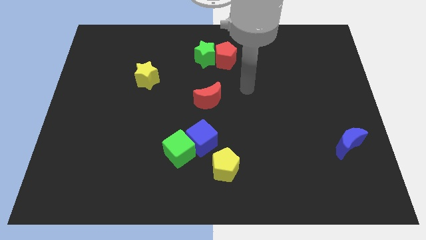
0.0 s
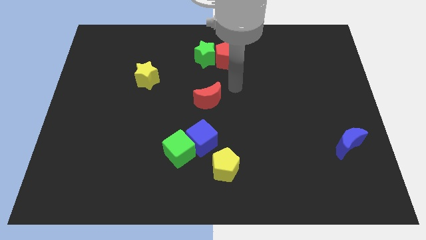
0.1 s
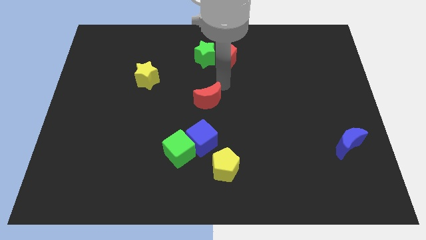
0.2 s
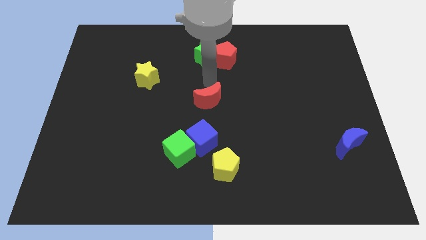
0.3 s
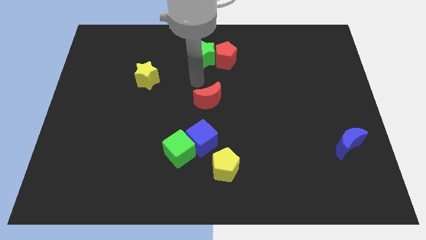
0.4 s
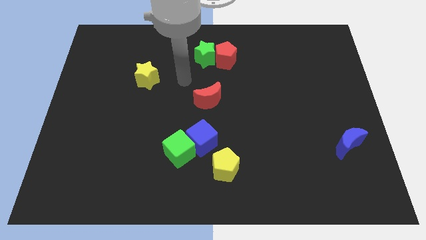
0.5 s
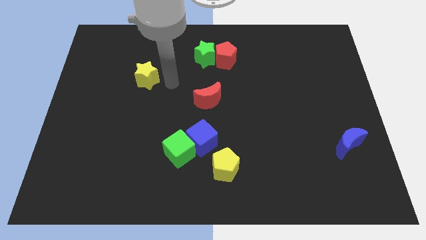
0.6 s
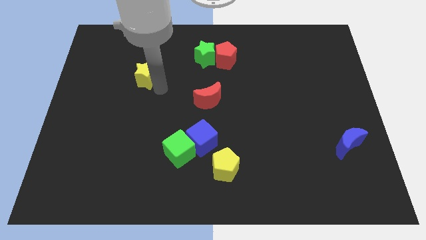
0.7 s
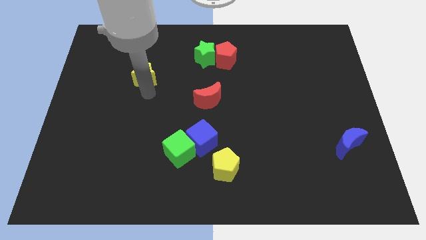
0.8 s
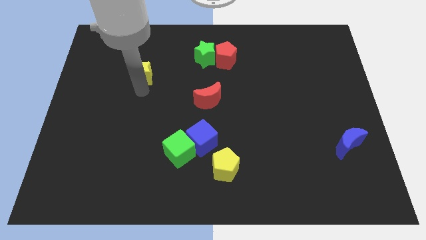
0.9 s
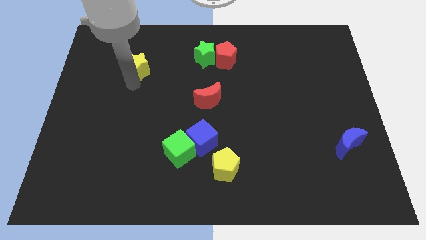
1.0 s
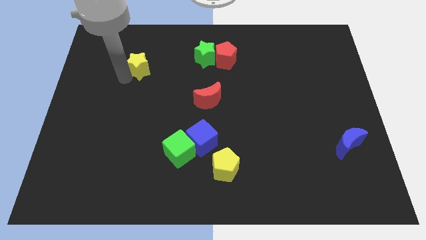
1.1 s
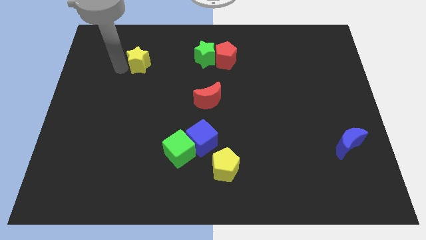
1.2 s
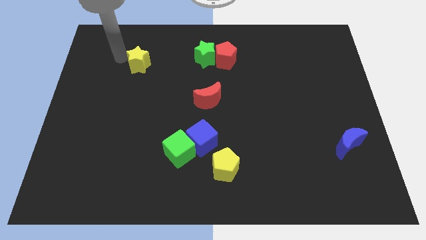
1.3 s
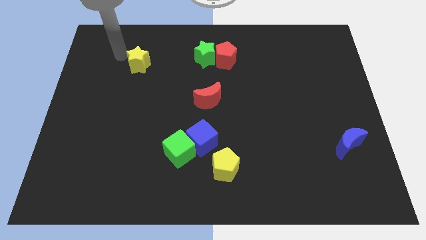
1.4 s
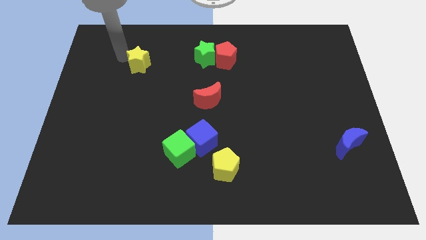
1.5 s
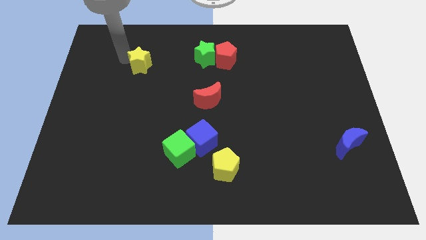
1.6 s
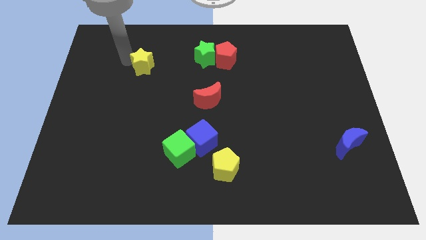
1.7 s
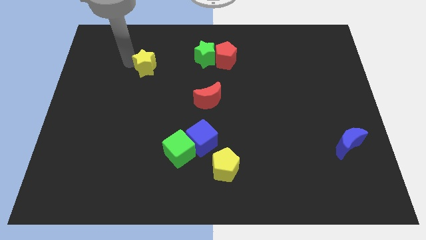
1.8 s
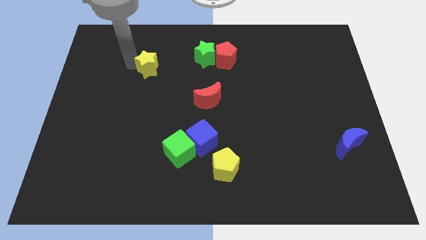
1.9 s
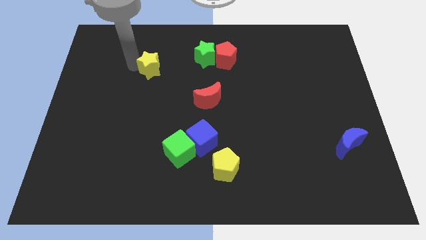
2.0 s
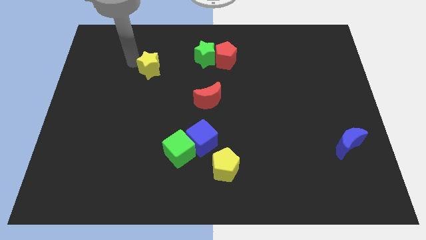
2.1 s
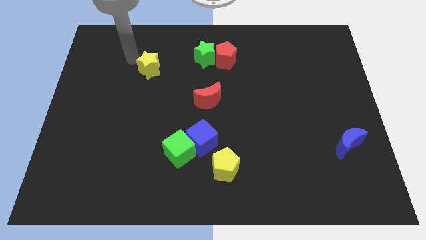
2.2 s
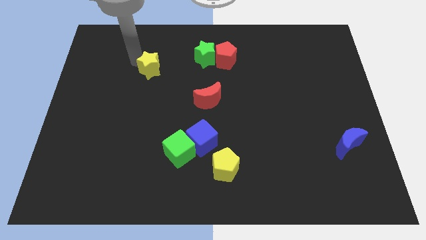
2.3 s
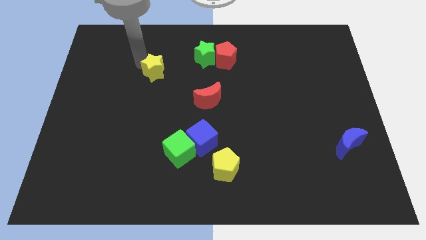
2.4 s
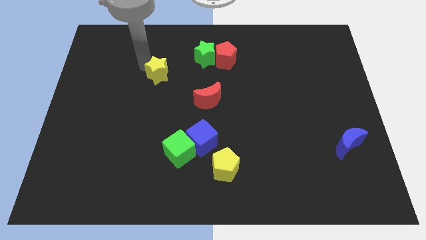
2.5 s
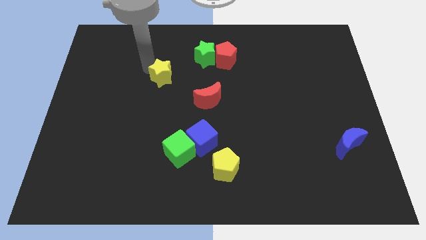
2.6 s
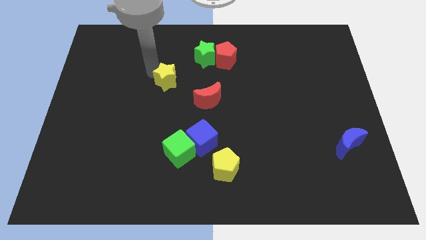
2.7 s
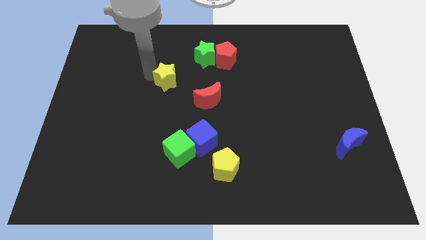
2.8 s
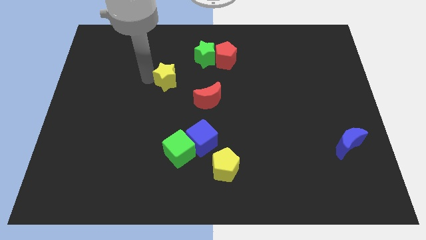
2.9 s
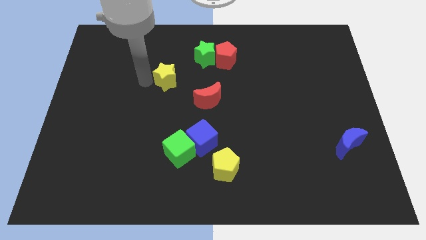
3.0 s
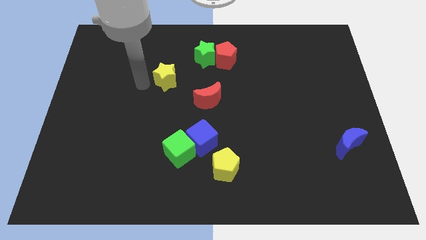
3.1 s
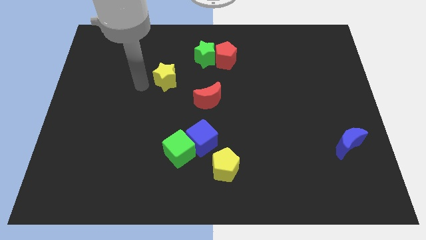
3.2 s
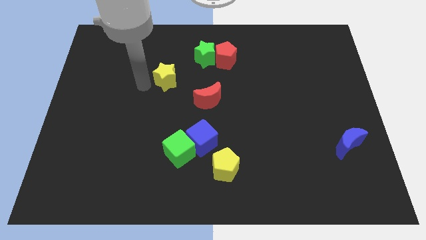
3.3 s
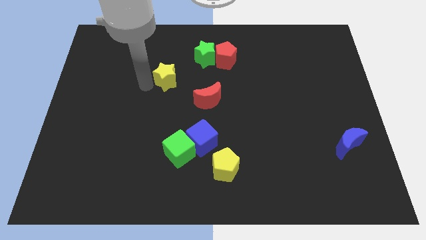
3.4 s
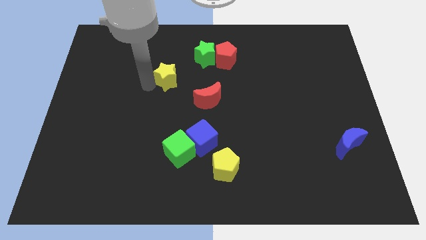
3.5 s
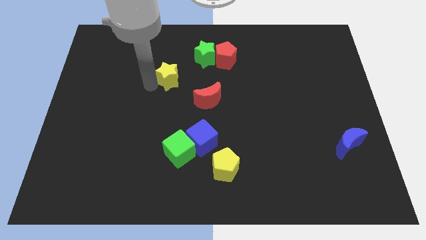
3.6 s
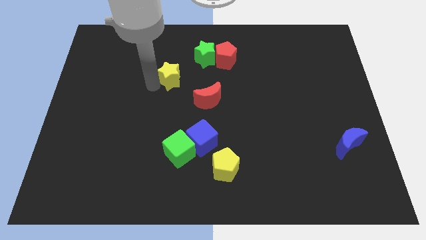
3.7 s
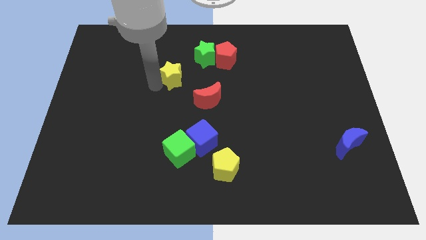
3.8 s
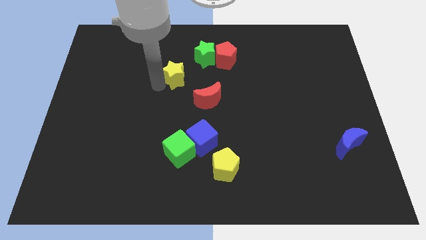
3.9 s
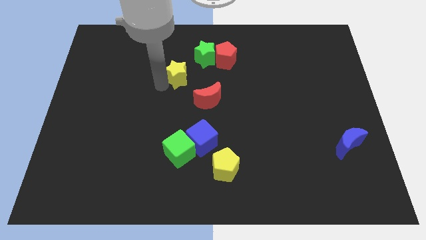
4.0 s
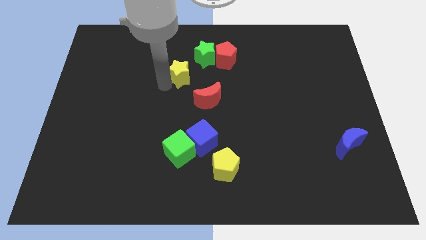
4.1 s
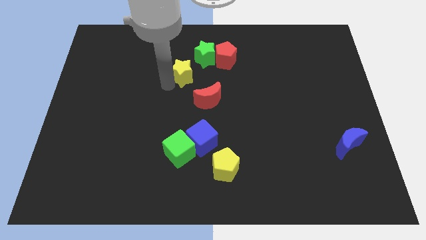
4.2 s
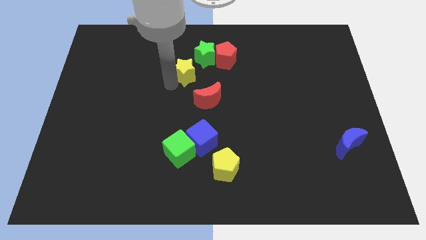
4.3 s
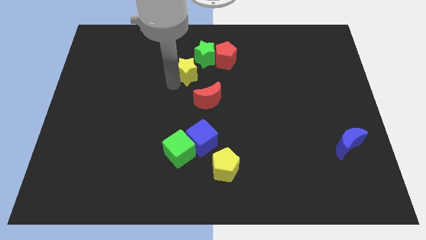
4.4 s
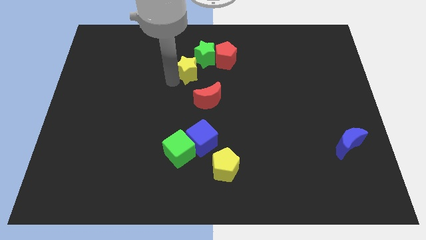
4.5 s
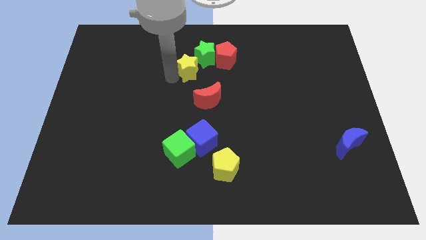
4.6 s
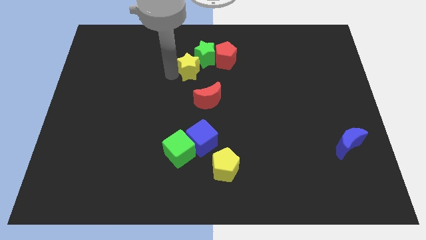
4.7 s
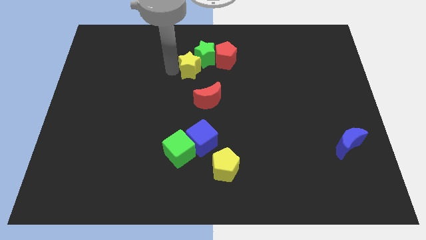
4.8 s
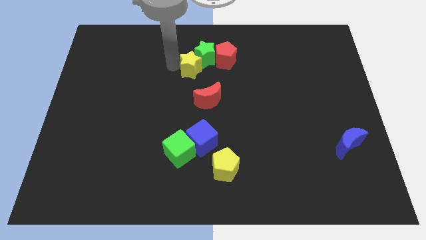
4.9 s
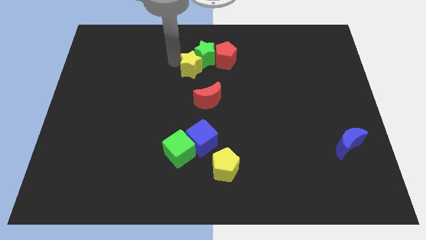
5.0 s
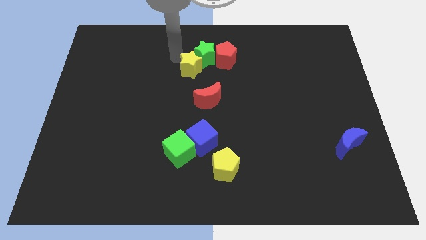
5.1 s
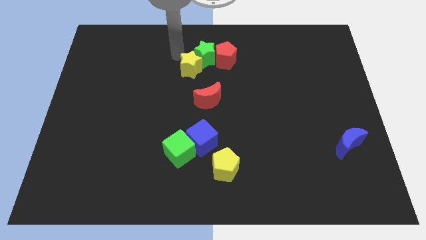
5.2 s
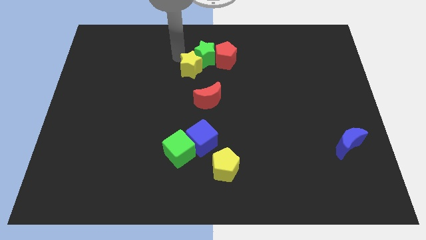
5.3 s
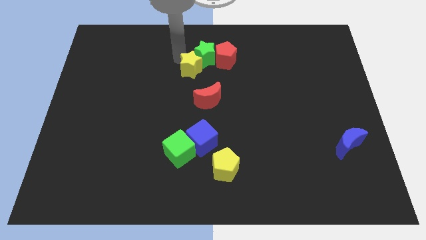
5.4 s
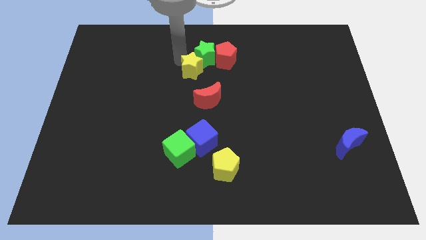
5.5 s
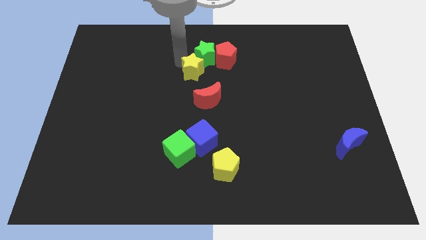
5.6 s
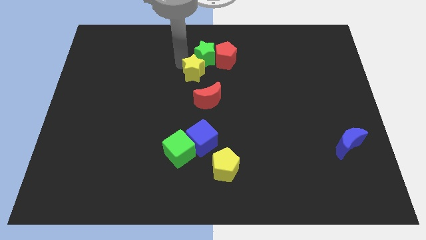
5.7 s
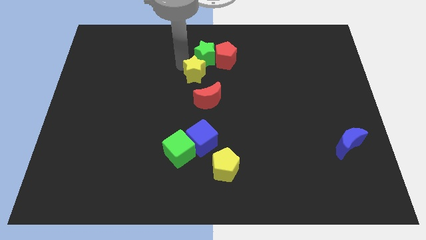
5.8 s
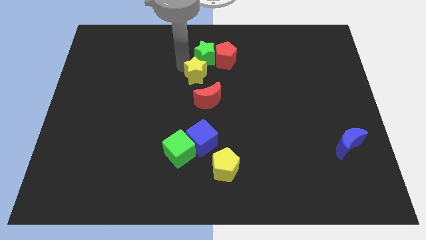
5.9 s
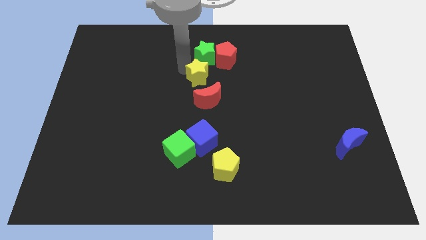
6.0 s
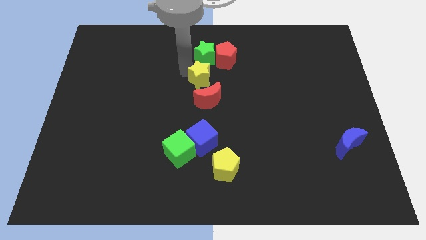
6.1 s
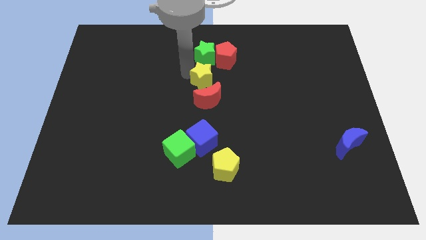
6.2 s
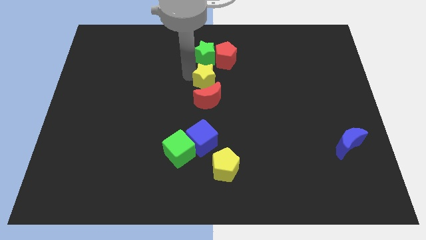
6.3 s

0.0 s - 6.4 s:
move the yellow star to the top right of the red moon

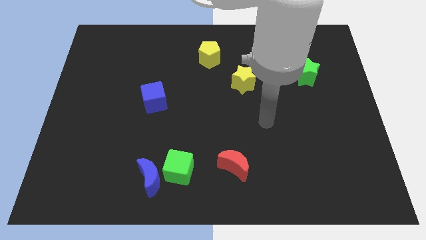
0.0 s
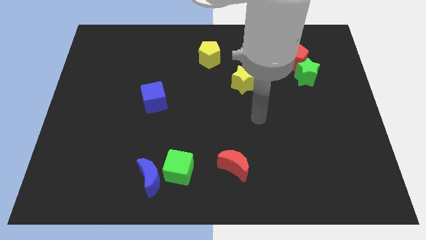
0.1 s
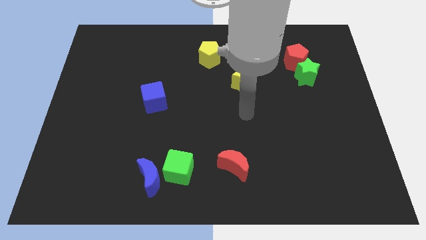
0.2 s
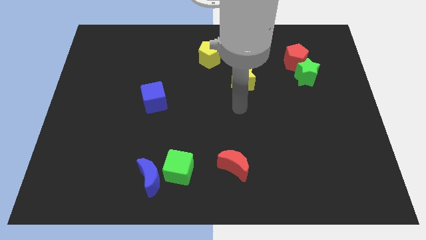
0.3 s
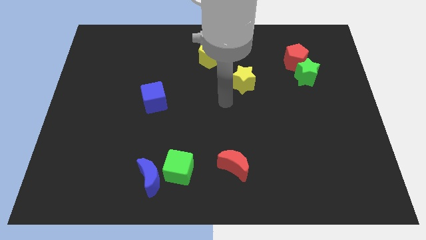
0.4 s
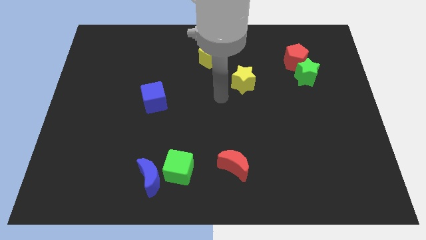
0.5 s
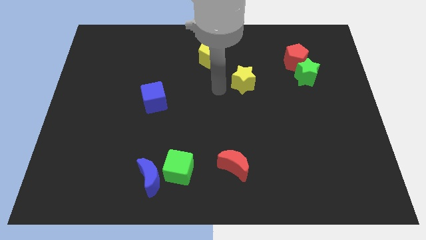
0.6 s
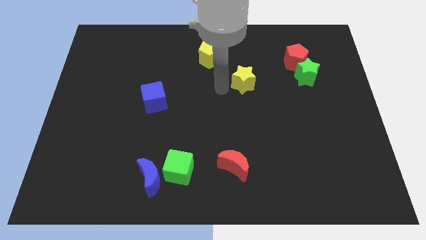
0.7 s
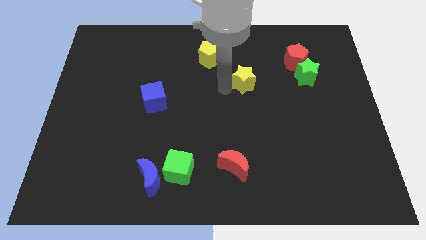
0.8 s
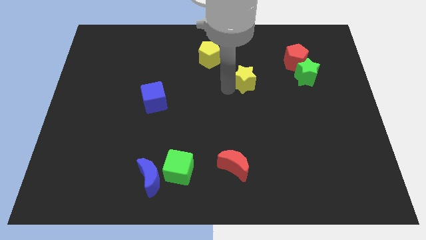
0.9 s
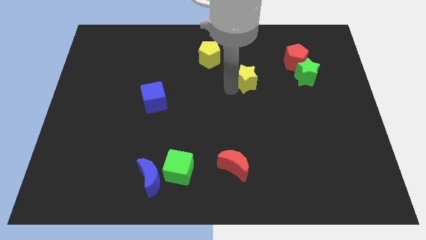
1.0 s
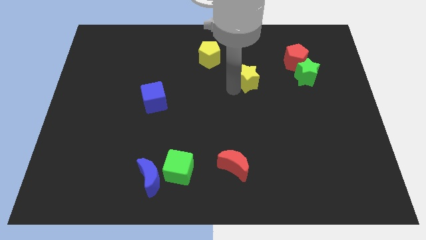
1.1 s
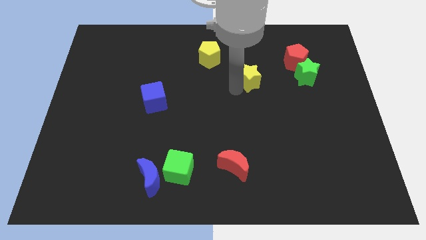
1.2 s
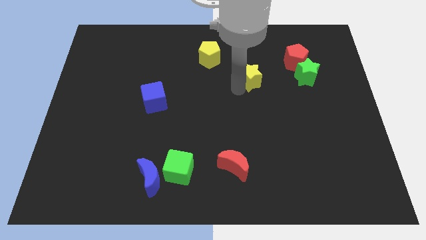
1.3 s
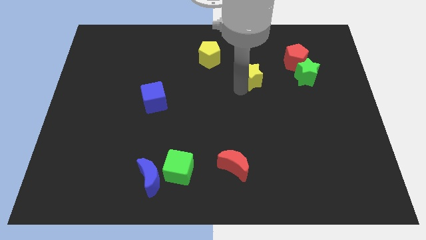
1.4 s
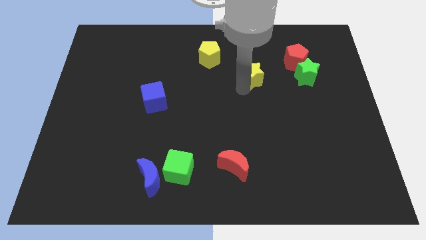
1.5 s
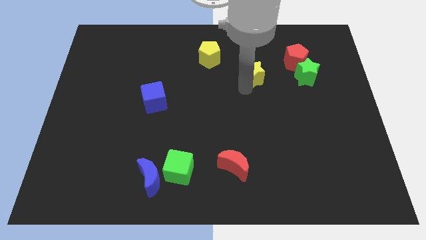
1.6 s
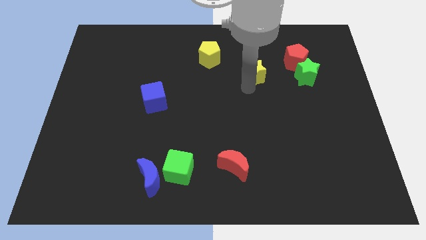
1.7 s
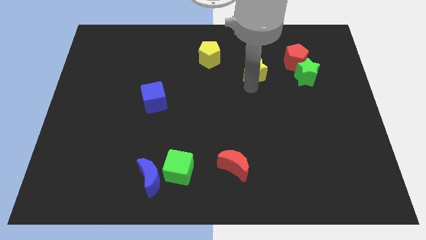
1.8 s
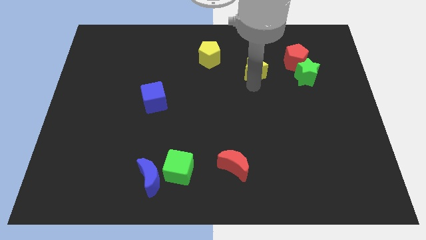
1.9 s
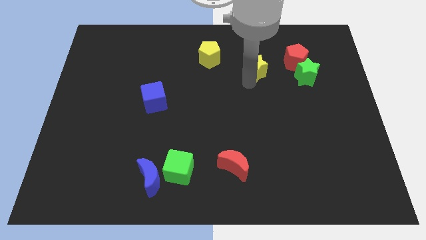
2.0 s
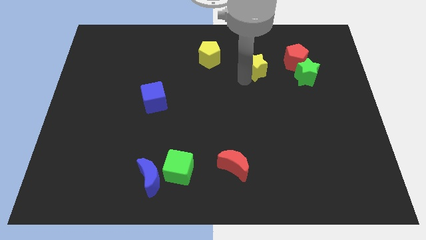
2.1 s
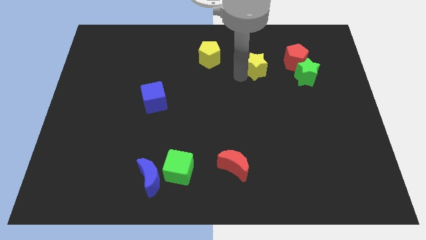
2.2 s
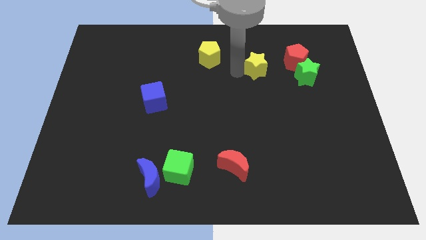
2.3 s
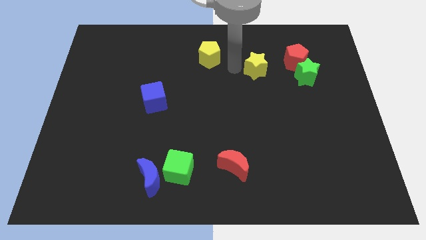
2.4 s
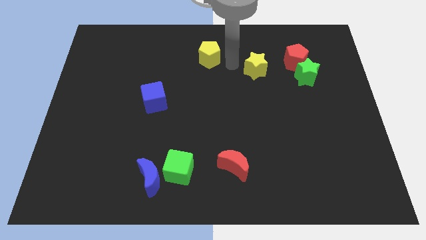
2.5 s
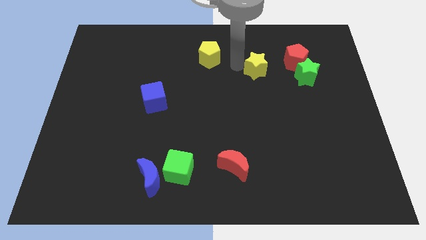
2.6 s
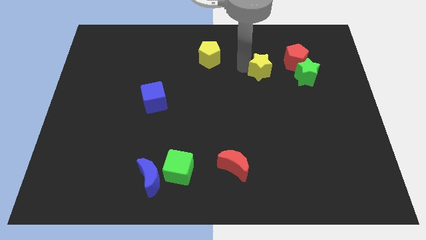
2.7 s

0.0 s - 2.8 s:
slide the yellow star diagonally down and to the left of the red pentagon
